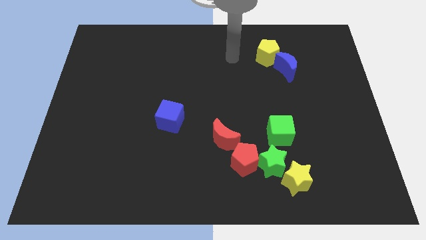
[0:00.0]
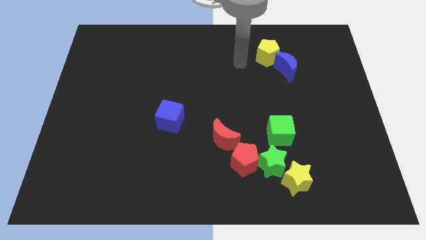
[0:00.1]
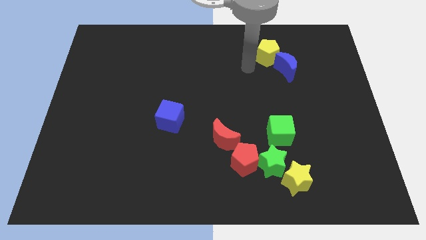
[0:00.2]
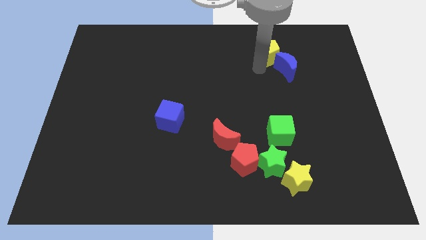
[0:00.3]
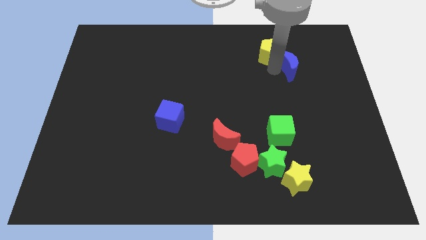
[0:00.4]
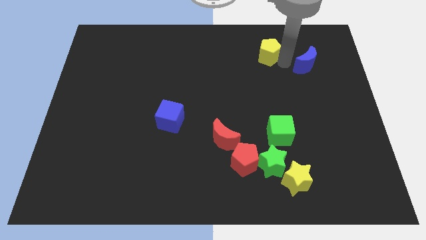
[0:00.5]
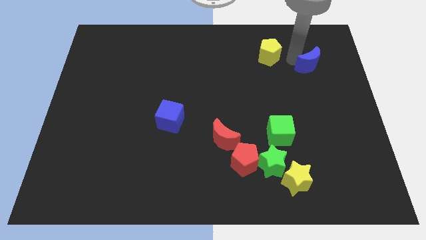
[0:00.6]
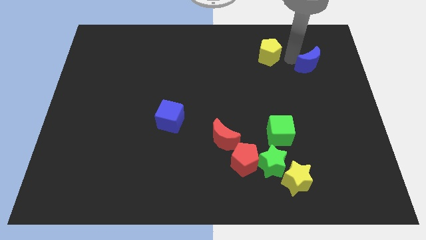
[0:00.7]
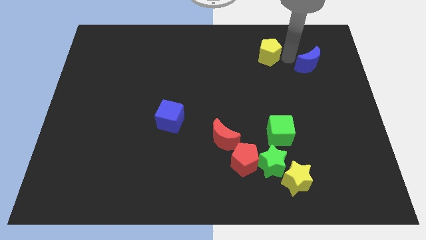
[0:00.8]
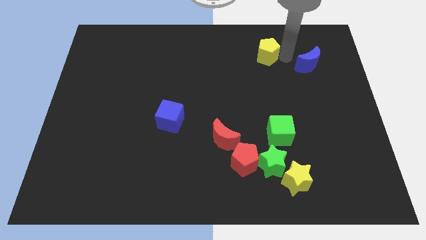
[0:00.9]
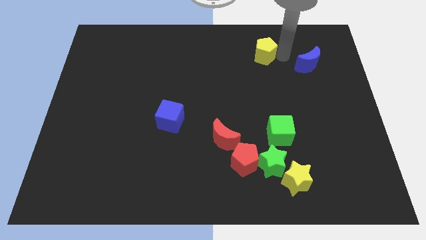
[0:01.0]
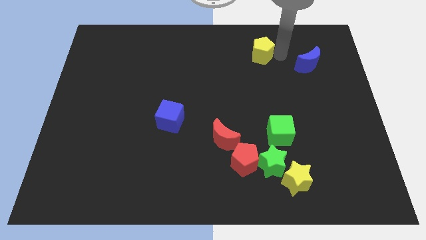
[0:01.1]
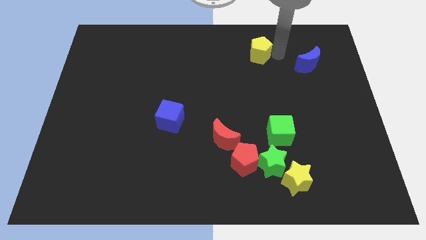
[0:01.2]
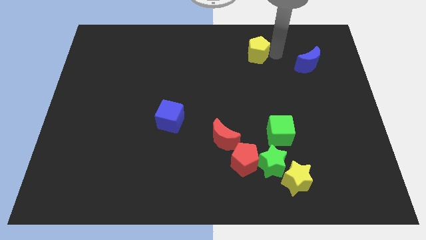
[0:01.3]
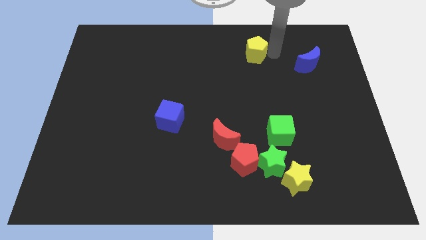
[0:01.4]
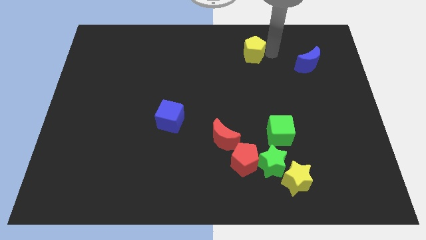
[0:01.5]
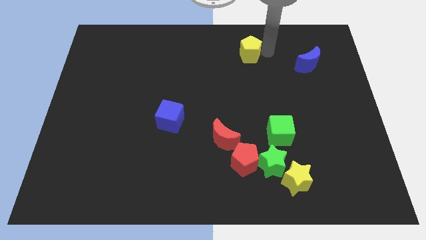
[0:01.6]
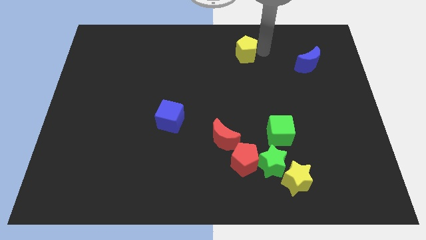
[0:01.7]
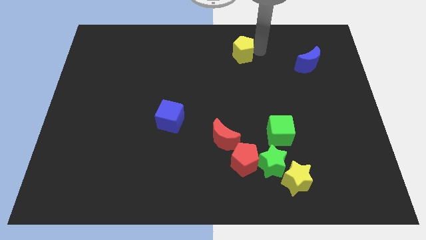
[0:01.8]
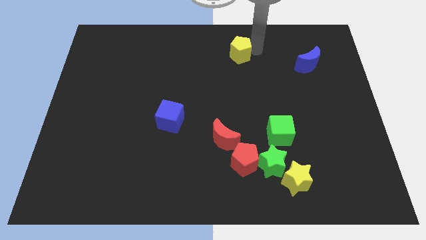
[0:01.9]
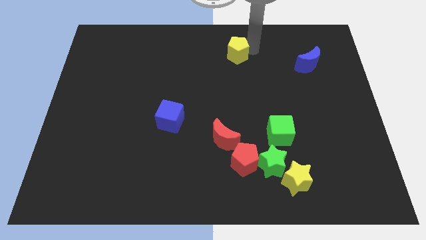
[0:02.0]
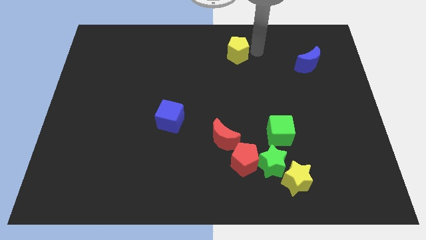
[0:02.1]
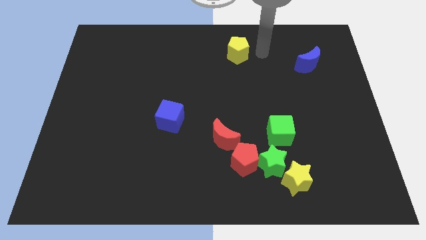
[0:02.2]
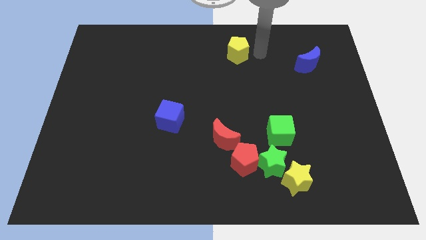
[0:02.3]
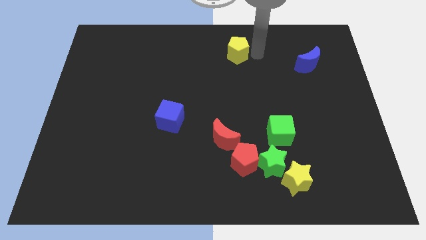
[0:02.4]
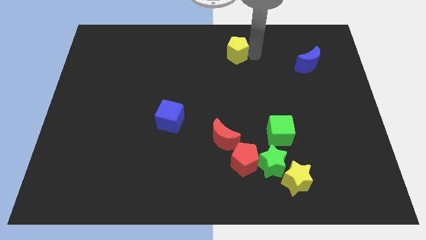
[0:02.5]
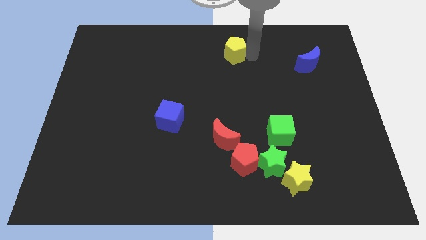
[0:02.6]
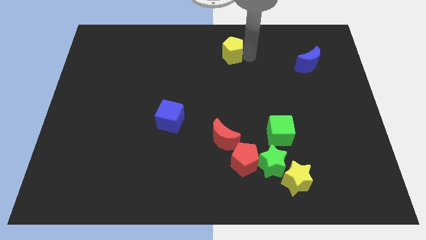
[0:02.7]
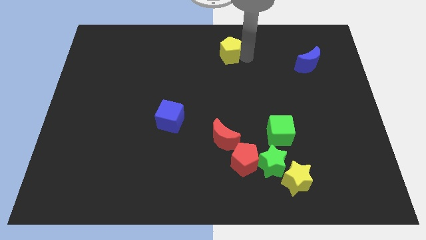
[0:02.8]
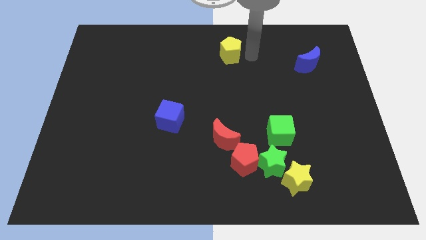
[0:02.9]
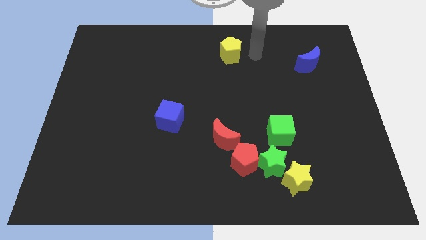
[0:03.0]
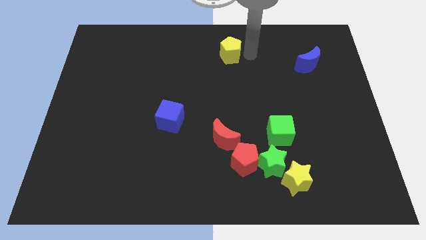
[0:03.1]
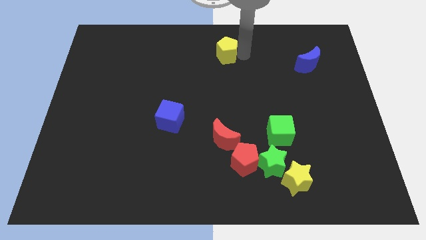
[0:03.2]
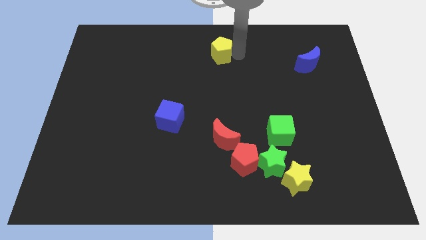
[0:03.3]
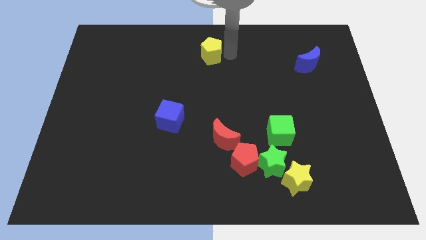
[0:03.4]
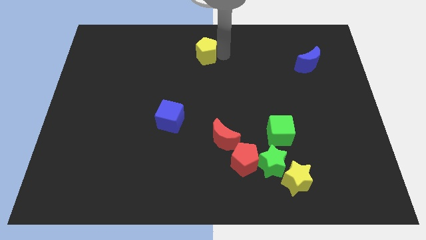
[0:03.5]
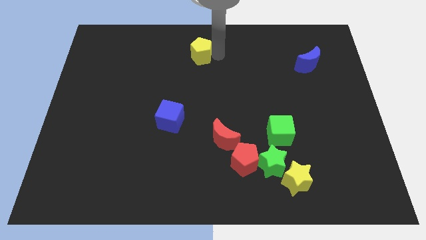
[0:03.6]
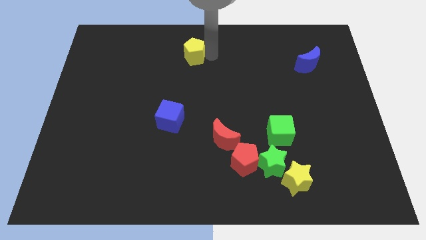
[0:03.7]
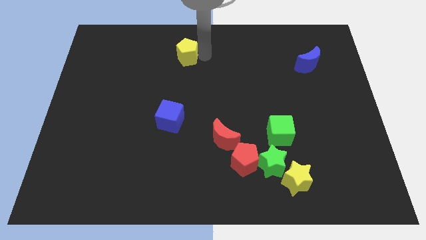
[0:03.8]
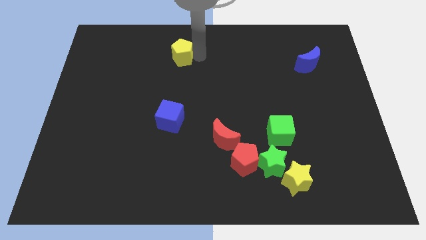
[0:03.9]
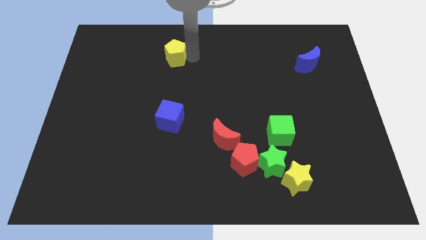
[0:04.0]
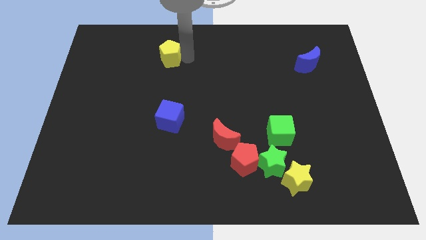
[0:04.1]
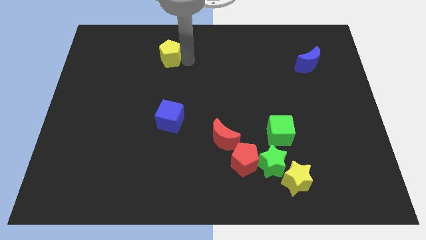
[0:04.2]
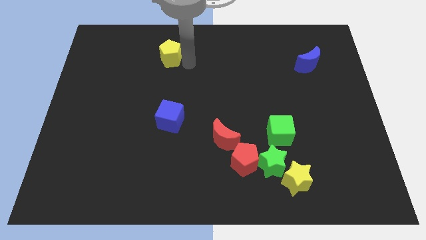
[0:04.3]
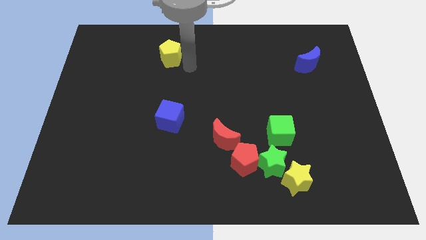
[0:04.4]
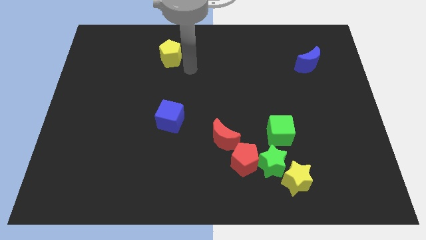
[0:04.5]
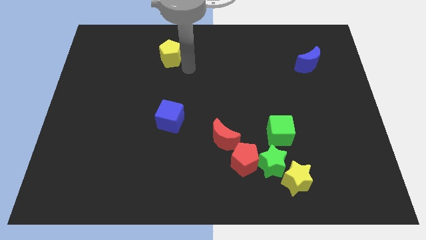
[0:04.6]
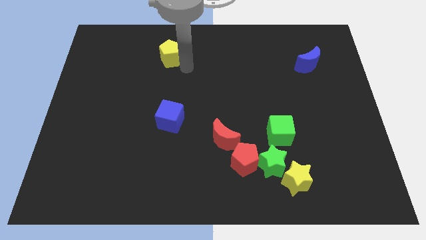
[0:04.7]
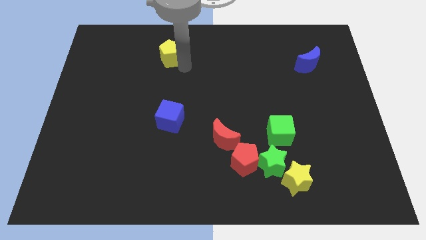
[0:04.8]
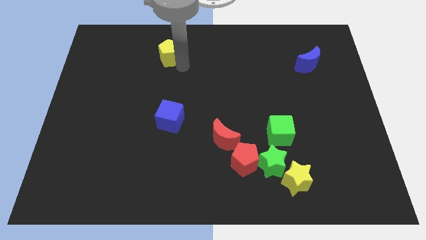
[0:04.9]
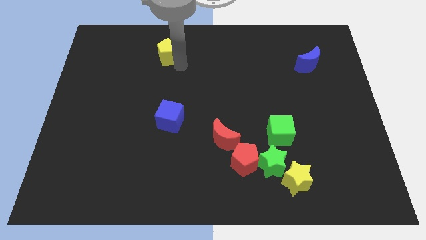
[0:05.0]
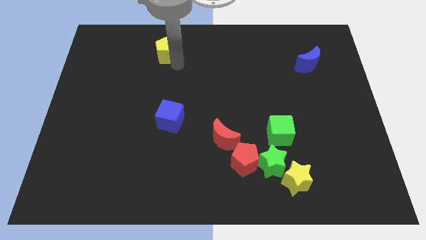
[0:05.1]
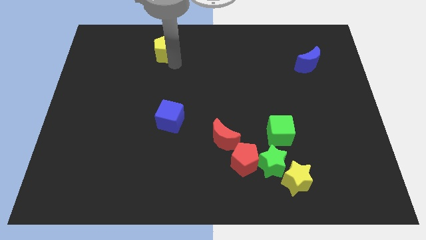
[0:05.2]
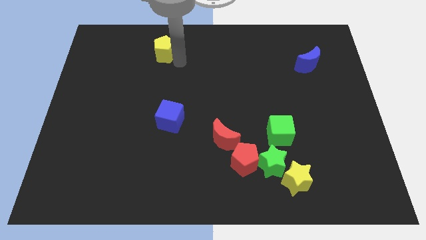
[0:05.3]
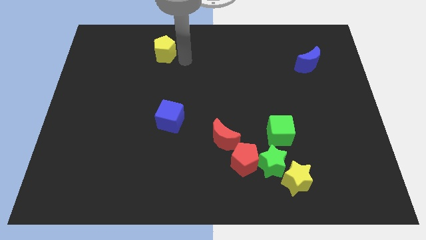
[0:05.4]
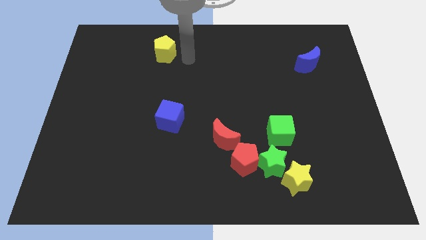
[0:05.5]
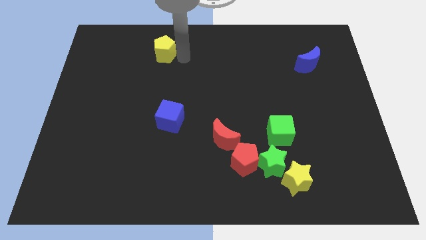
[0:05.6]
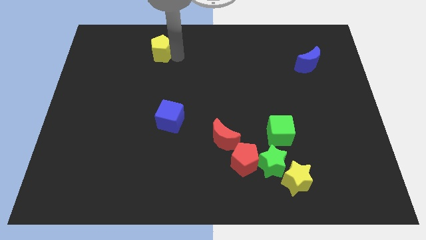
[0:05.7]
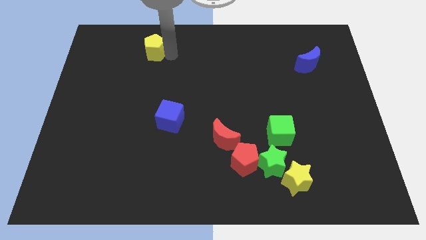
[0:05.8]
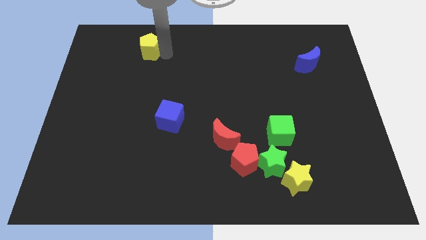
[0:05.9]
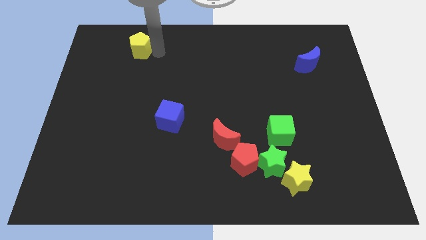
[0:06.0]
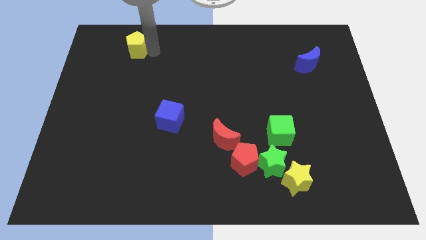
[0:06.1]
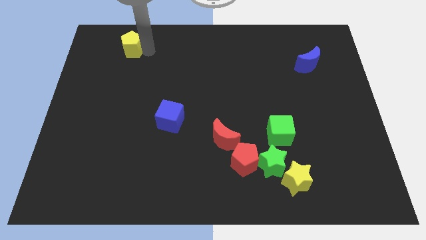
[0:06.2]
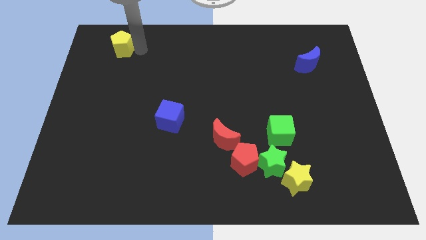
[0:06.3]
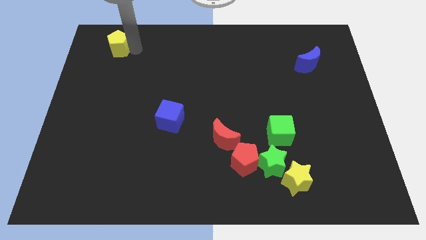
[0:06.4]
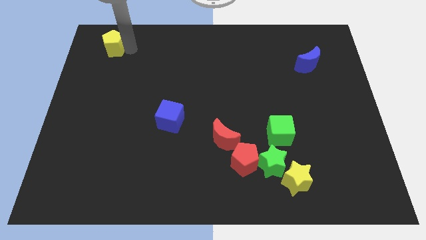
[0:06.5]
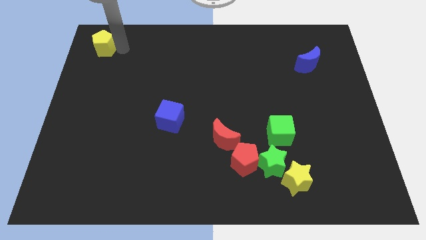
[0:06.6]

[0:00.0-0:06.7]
move the yellow pentagon to the top left of the board
